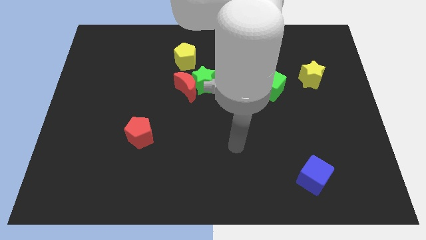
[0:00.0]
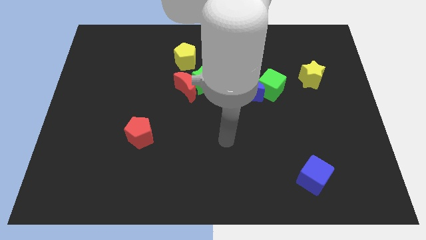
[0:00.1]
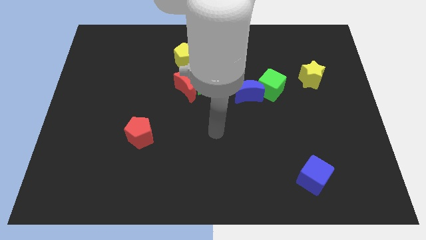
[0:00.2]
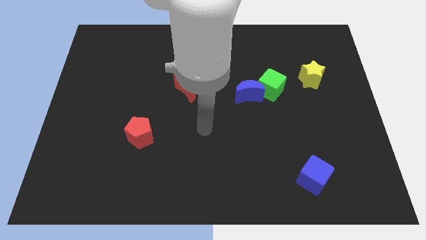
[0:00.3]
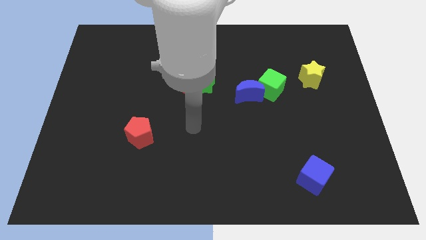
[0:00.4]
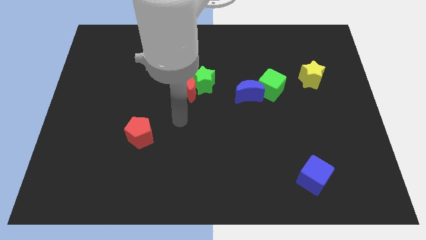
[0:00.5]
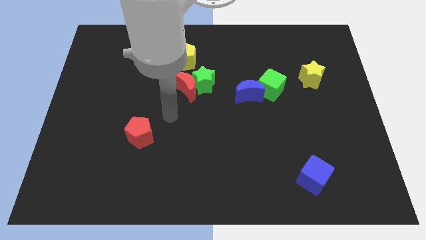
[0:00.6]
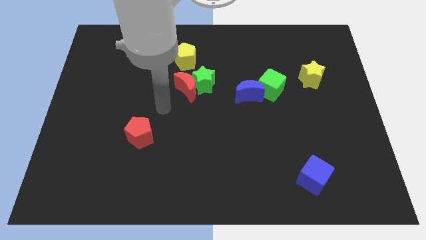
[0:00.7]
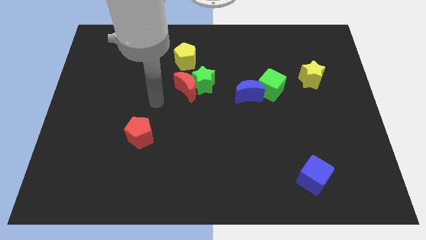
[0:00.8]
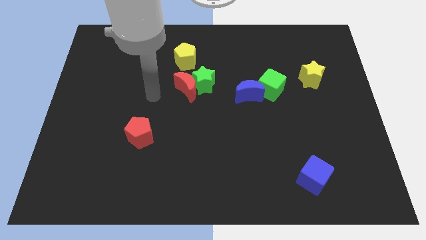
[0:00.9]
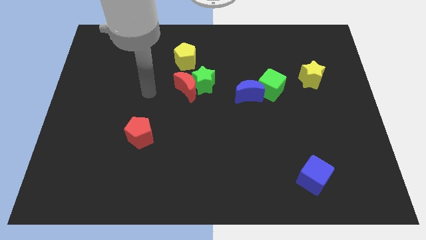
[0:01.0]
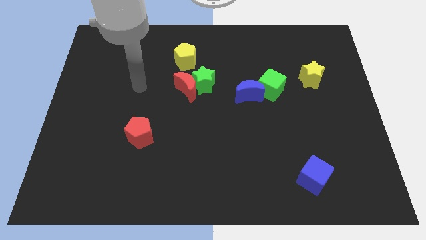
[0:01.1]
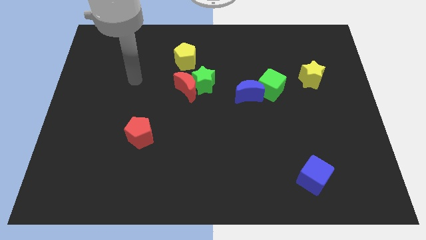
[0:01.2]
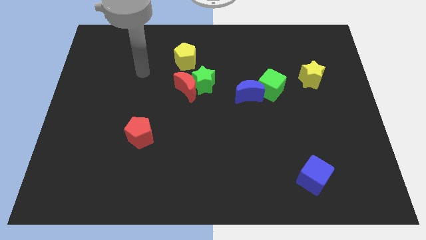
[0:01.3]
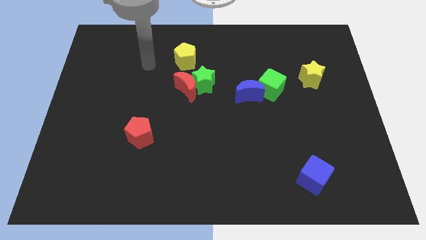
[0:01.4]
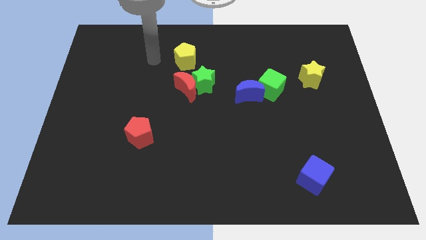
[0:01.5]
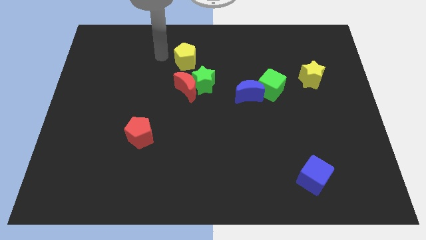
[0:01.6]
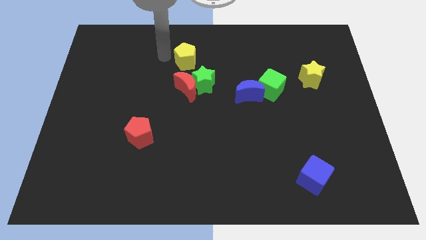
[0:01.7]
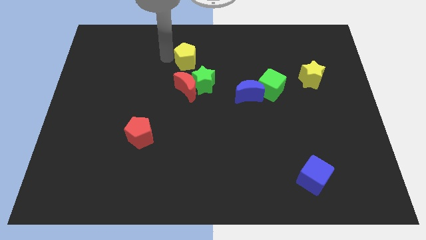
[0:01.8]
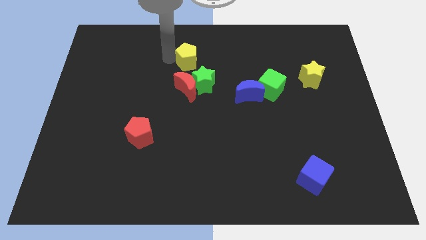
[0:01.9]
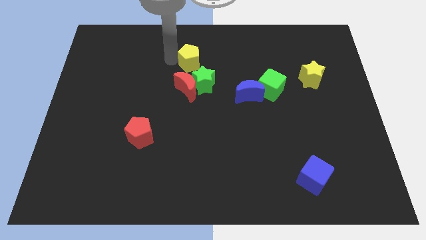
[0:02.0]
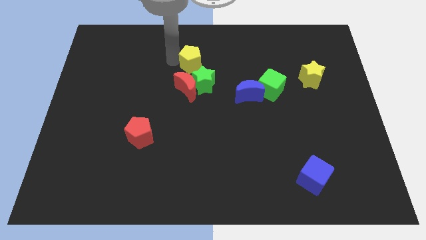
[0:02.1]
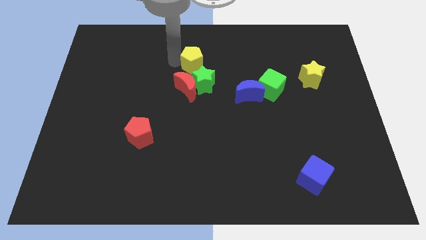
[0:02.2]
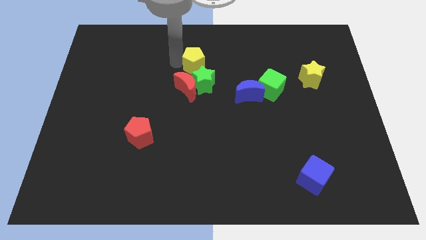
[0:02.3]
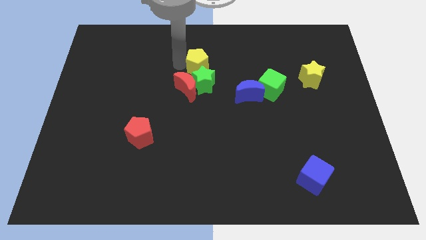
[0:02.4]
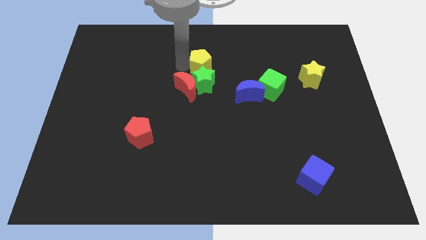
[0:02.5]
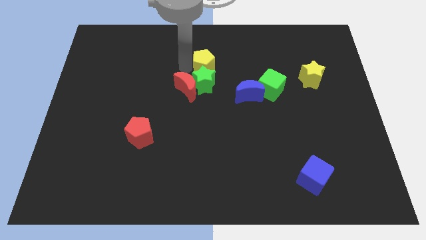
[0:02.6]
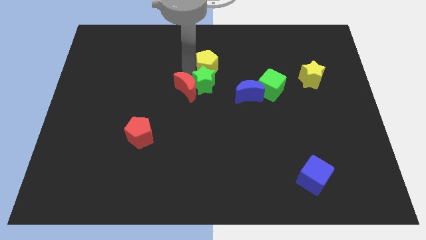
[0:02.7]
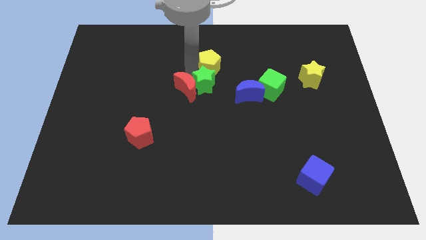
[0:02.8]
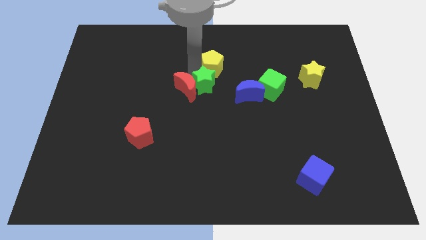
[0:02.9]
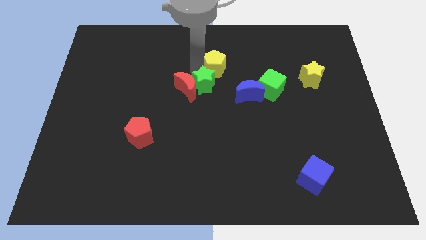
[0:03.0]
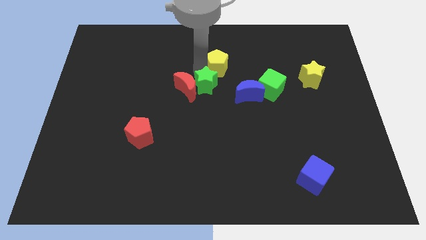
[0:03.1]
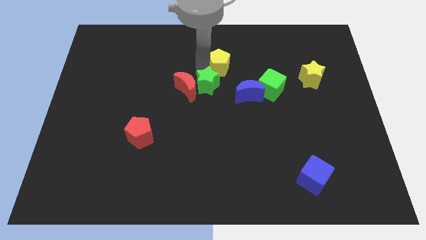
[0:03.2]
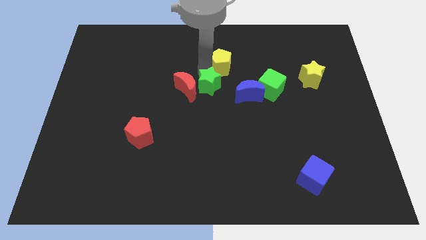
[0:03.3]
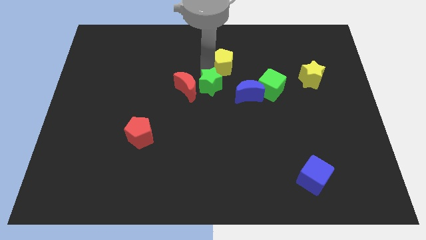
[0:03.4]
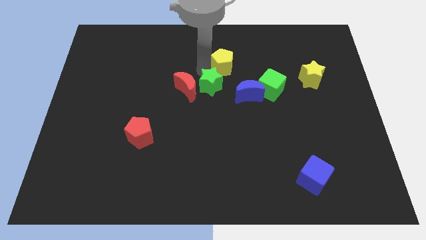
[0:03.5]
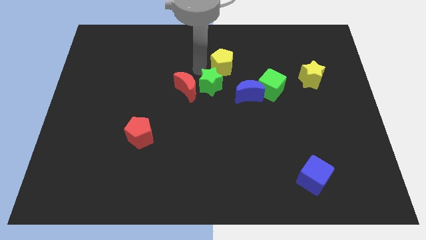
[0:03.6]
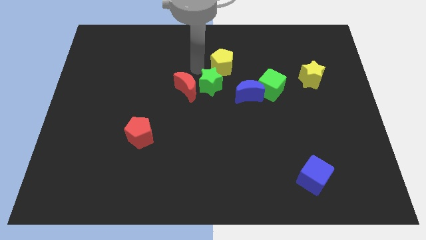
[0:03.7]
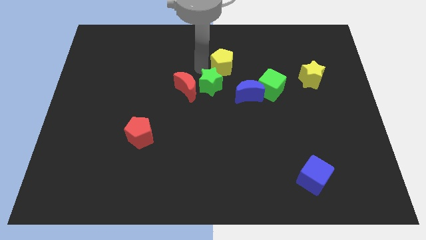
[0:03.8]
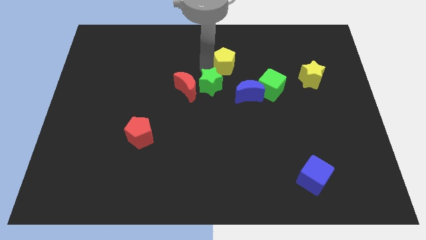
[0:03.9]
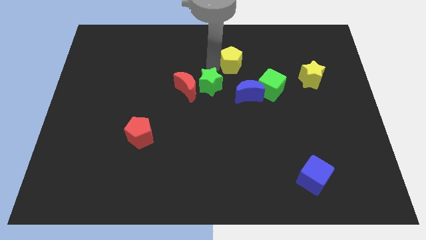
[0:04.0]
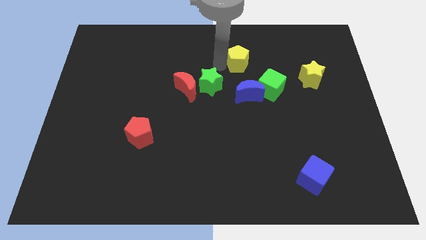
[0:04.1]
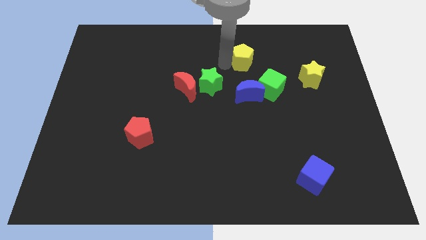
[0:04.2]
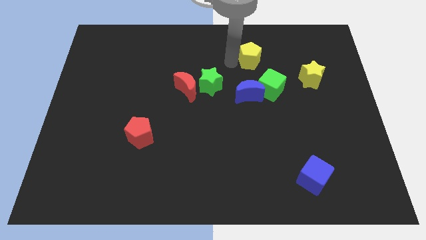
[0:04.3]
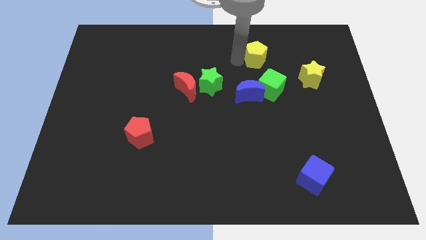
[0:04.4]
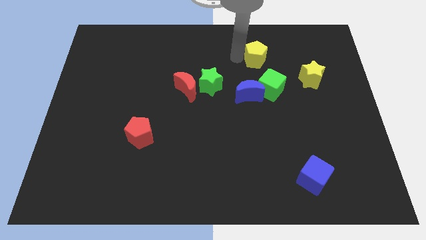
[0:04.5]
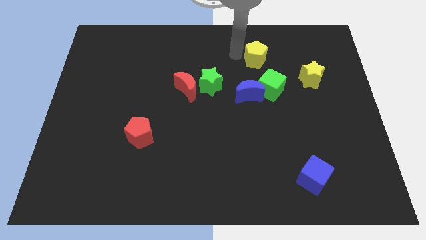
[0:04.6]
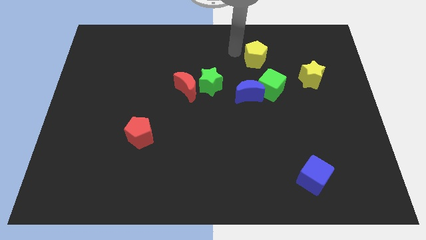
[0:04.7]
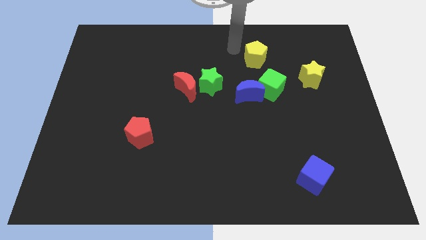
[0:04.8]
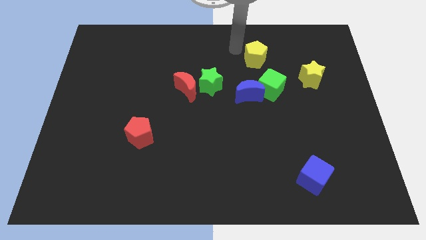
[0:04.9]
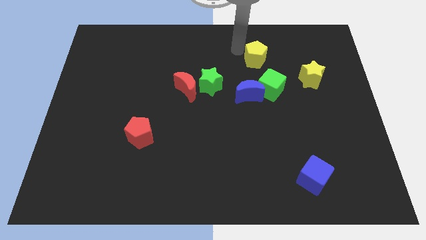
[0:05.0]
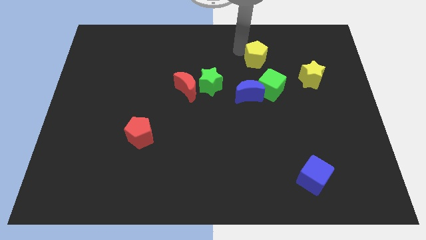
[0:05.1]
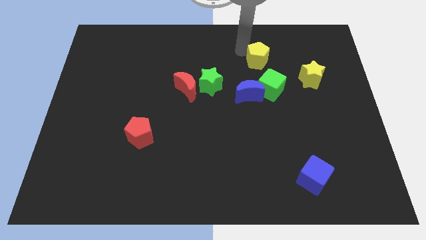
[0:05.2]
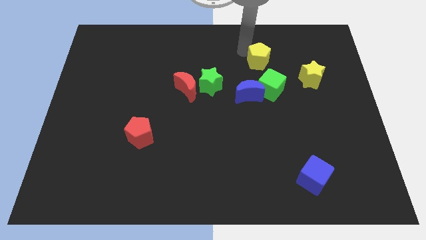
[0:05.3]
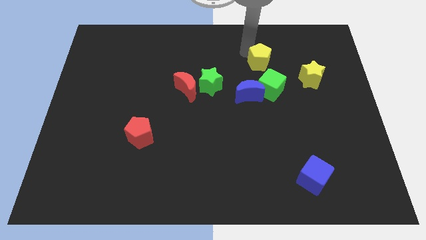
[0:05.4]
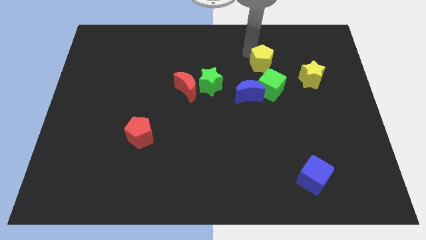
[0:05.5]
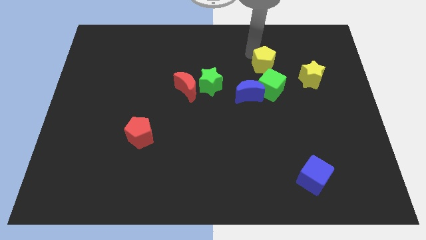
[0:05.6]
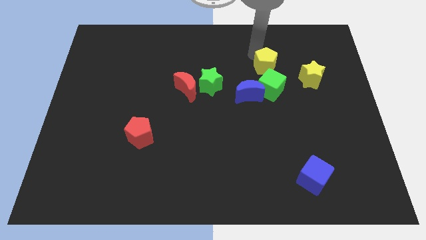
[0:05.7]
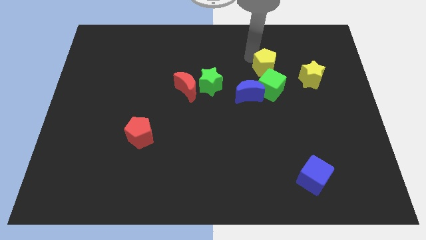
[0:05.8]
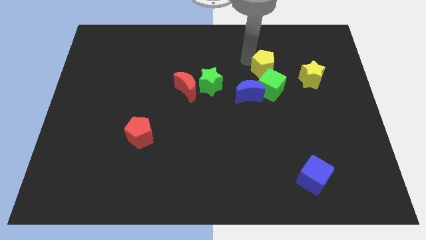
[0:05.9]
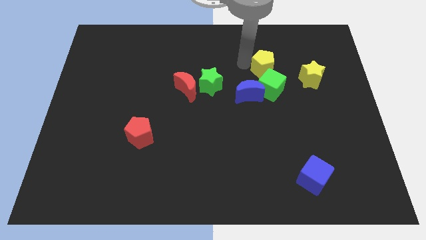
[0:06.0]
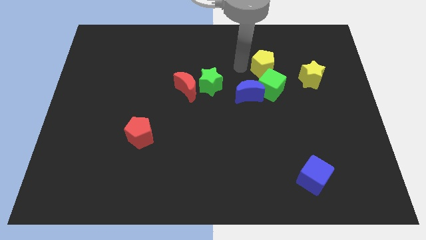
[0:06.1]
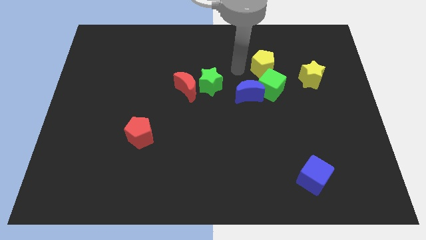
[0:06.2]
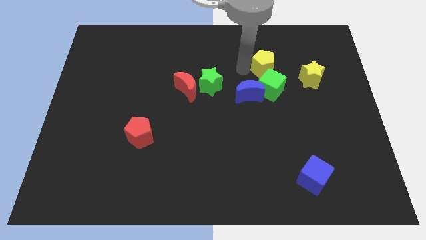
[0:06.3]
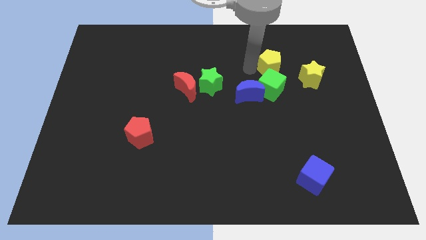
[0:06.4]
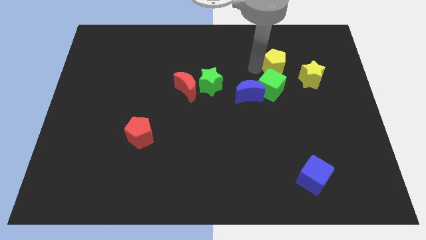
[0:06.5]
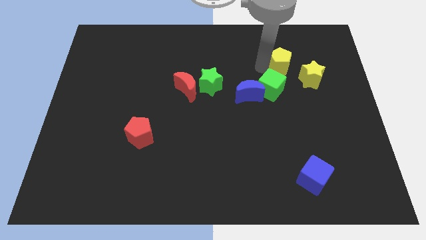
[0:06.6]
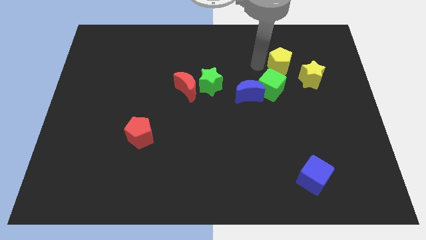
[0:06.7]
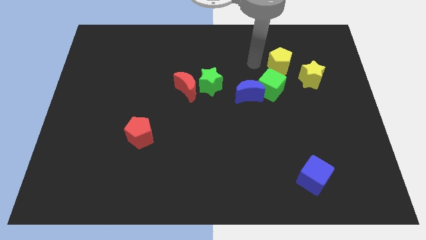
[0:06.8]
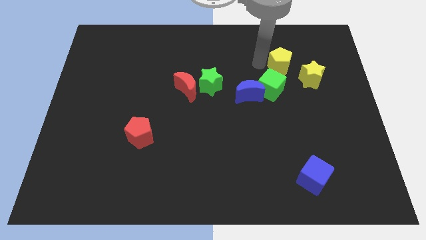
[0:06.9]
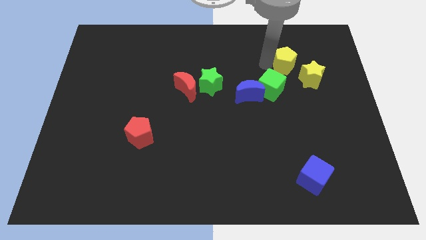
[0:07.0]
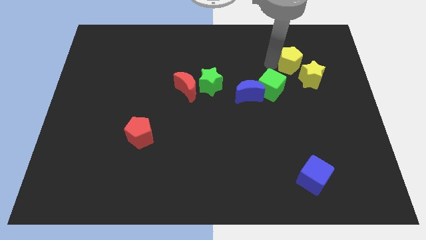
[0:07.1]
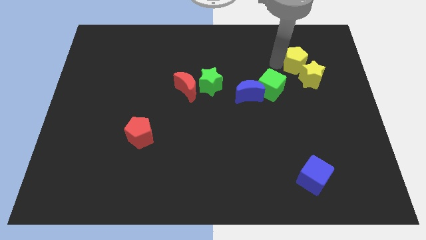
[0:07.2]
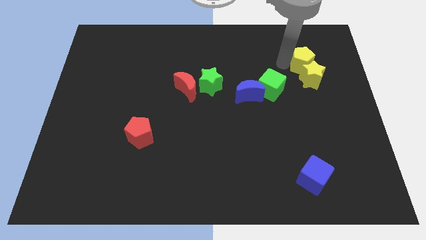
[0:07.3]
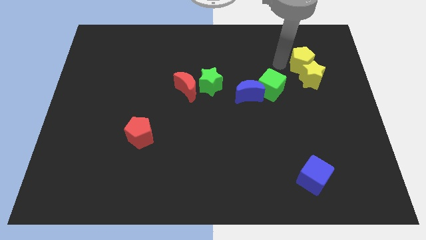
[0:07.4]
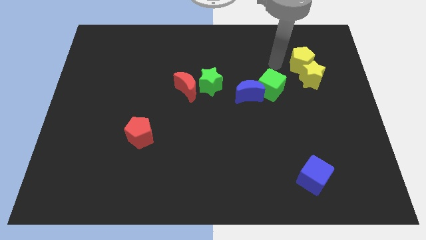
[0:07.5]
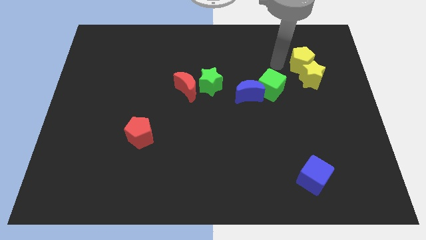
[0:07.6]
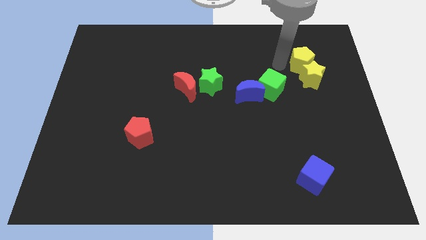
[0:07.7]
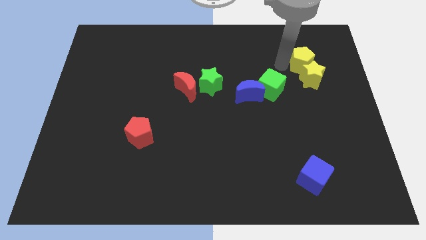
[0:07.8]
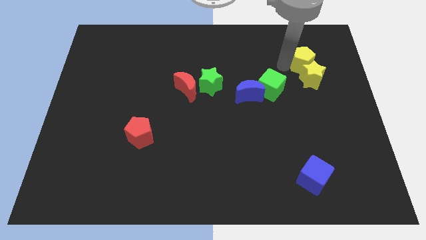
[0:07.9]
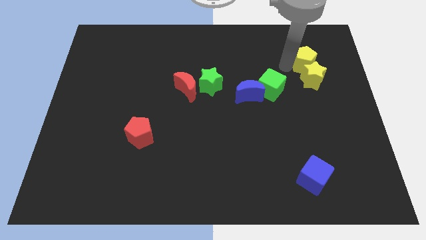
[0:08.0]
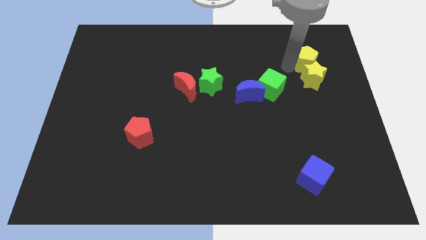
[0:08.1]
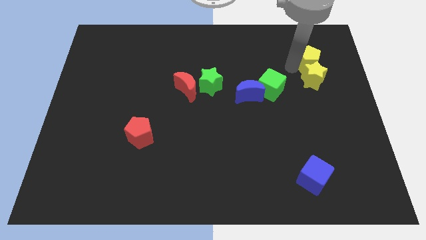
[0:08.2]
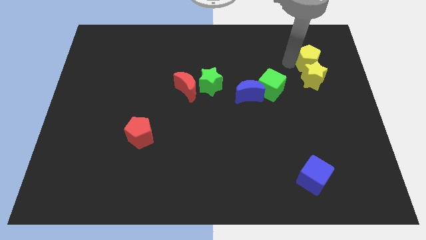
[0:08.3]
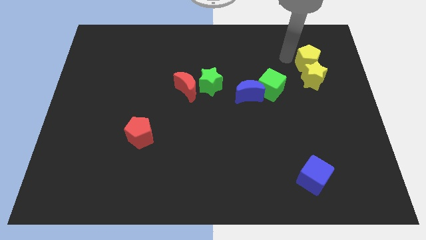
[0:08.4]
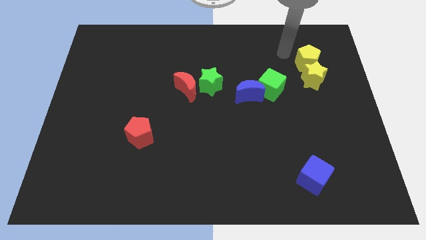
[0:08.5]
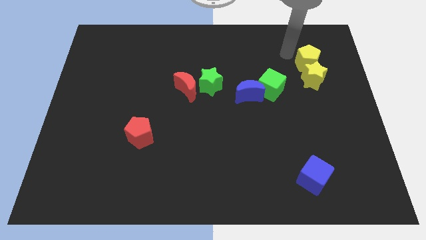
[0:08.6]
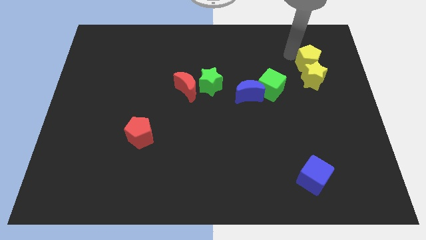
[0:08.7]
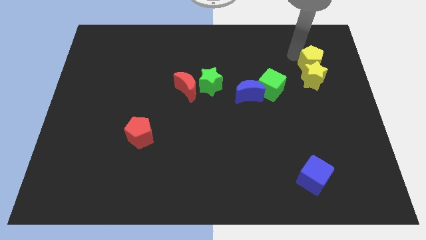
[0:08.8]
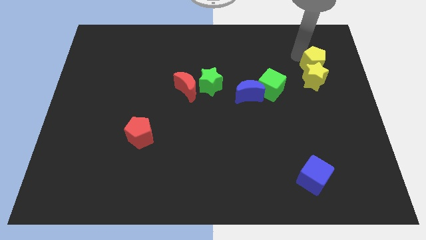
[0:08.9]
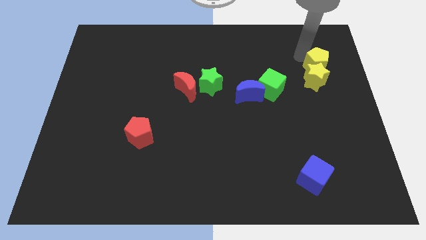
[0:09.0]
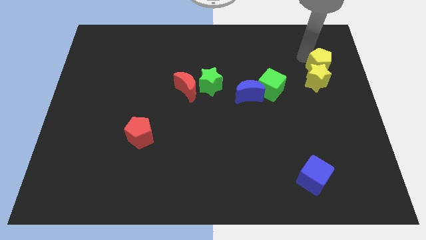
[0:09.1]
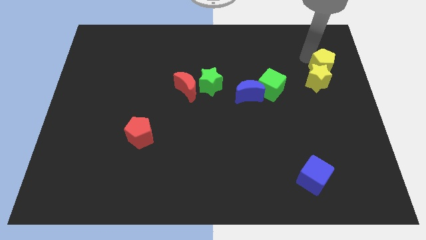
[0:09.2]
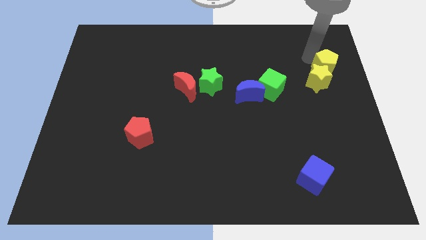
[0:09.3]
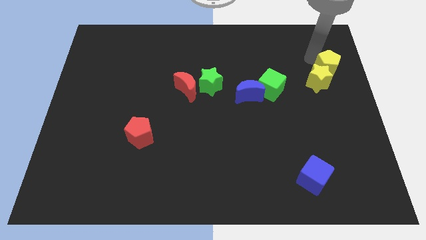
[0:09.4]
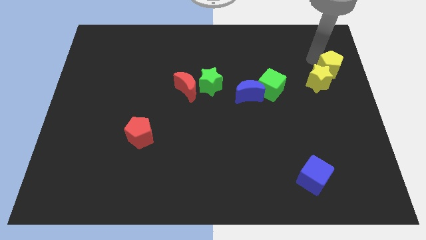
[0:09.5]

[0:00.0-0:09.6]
slide the yellow pentagon to the right side
